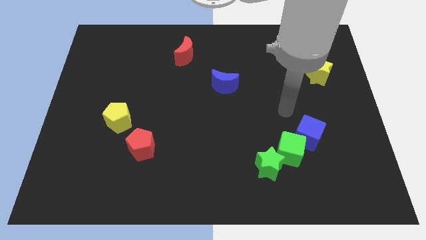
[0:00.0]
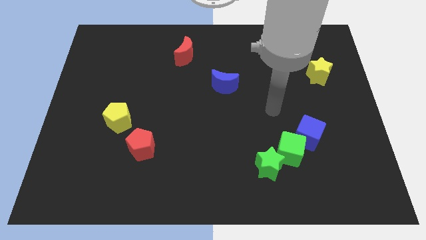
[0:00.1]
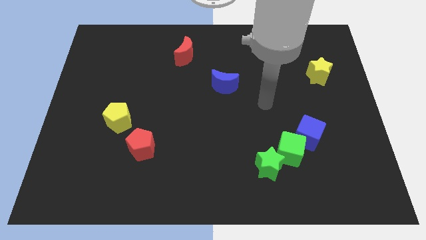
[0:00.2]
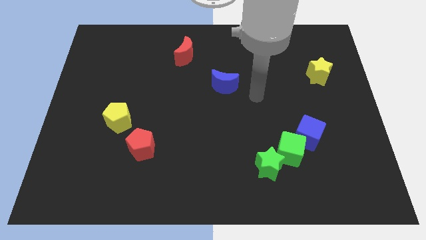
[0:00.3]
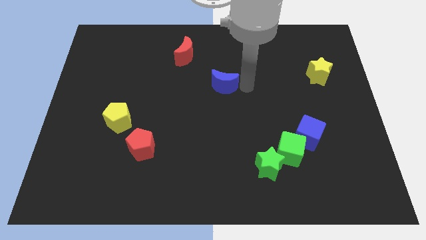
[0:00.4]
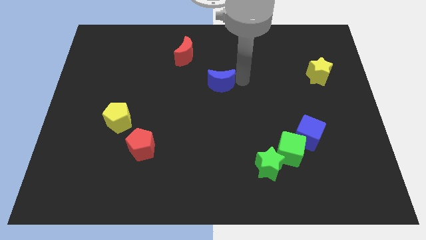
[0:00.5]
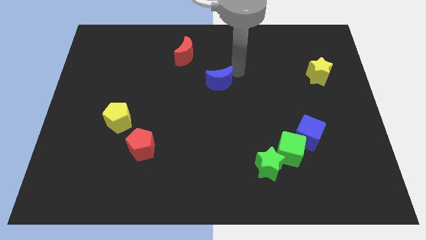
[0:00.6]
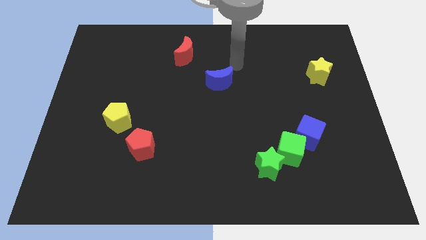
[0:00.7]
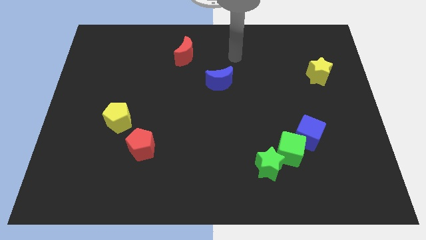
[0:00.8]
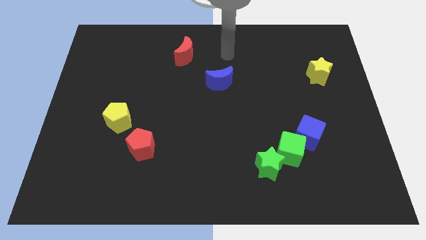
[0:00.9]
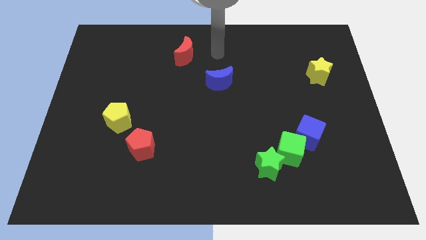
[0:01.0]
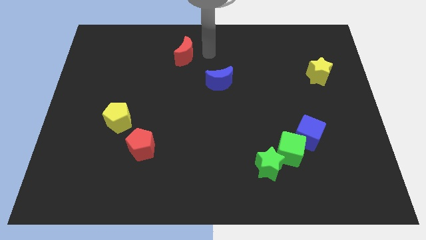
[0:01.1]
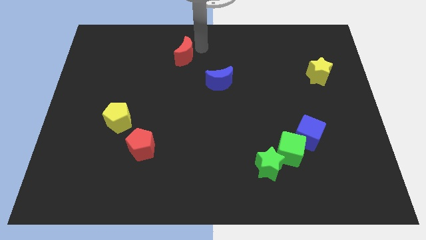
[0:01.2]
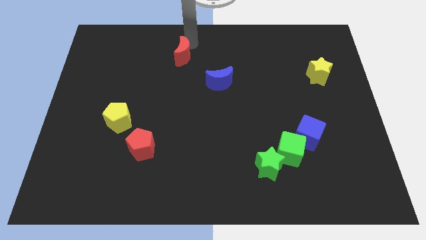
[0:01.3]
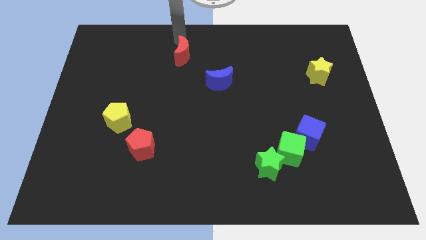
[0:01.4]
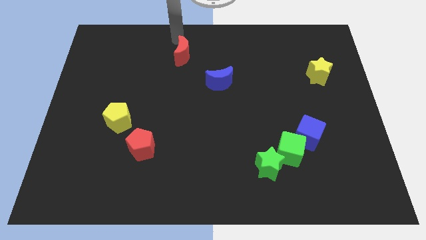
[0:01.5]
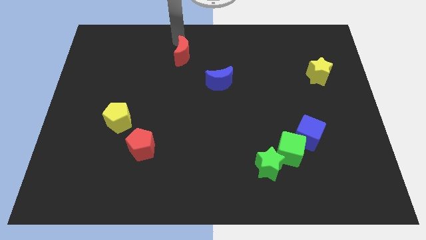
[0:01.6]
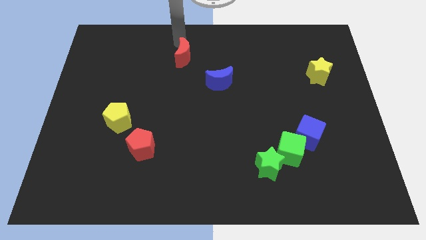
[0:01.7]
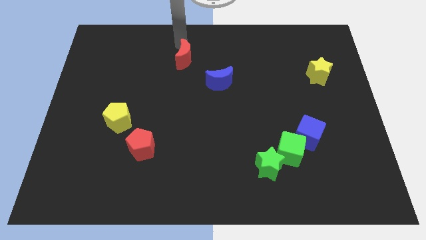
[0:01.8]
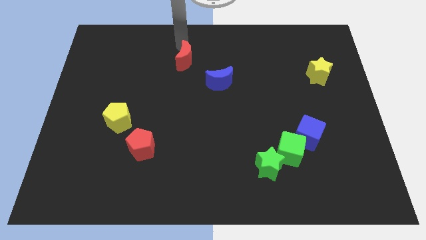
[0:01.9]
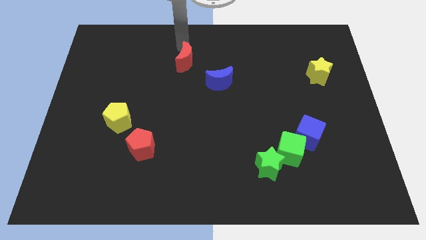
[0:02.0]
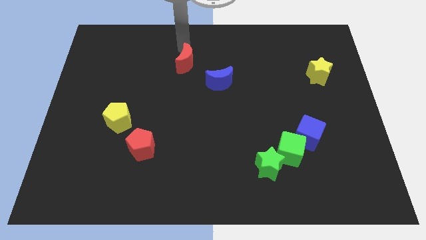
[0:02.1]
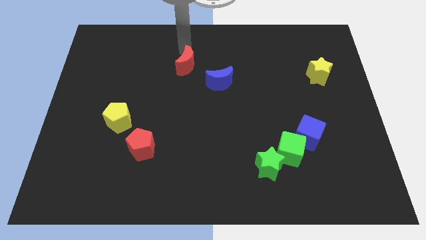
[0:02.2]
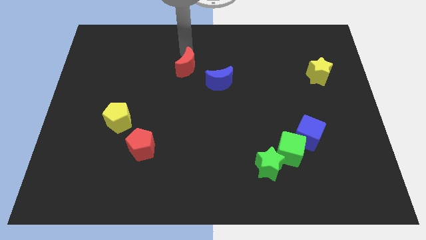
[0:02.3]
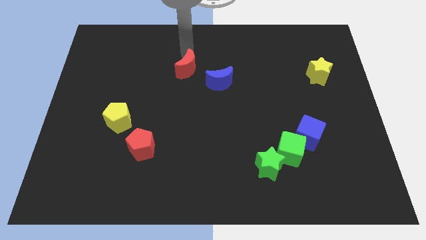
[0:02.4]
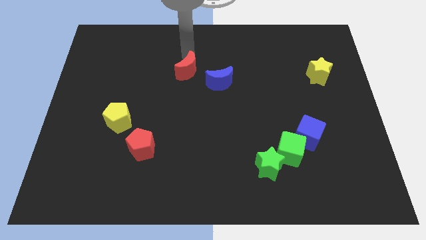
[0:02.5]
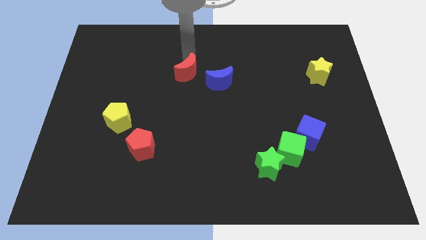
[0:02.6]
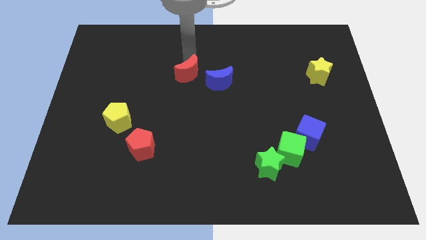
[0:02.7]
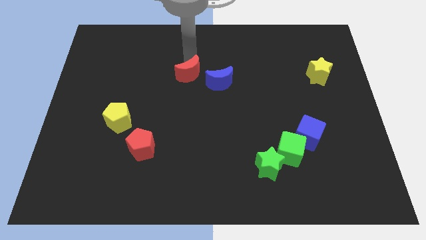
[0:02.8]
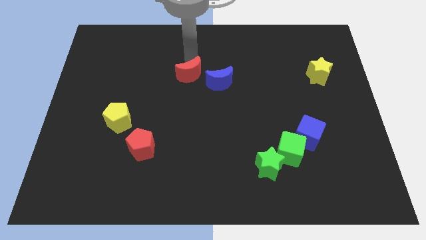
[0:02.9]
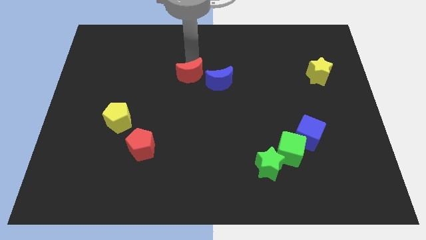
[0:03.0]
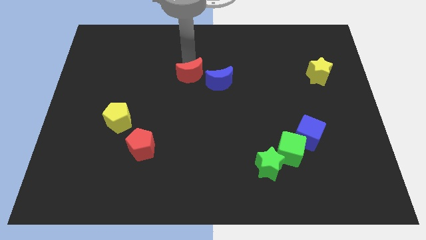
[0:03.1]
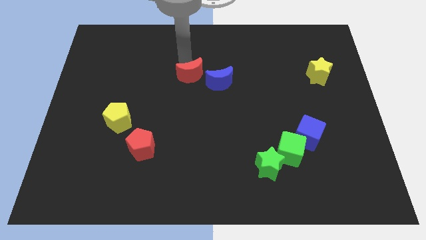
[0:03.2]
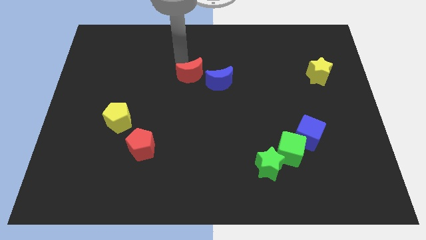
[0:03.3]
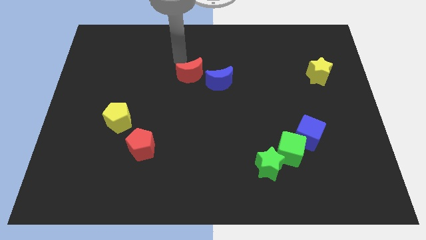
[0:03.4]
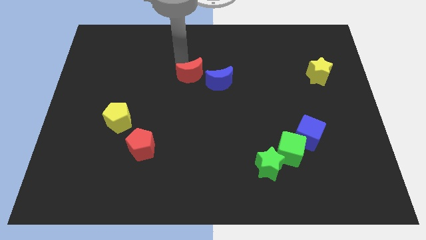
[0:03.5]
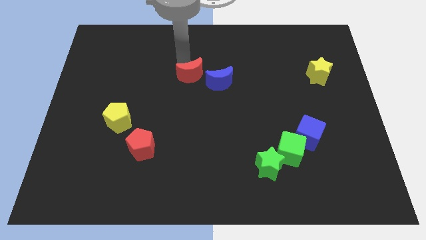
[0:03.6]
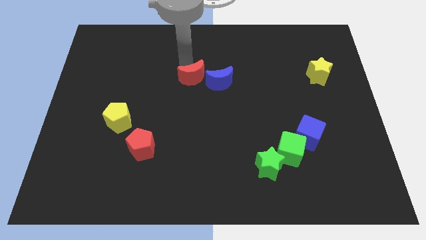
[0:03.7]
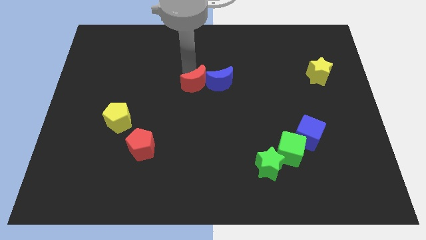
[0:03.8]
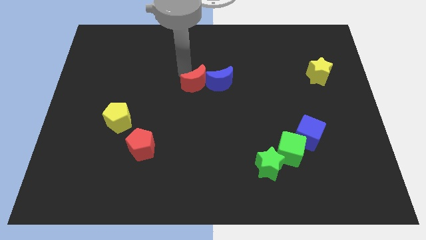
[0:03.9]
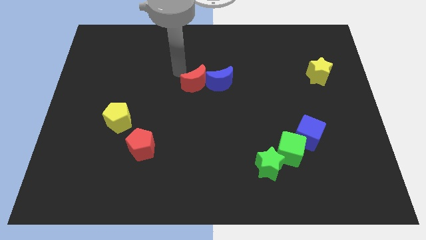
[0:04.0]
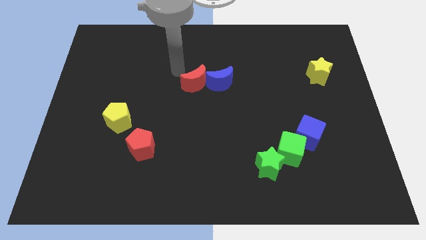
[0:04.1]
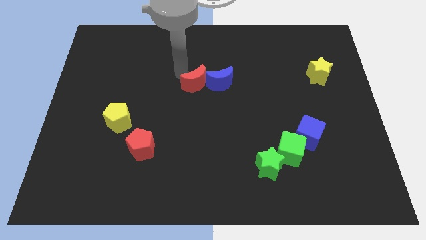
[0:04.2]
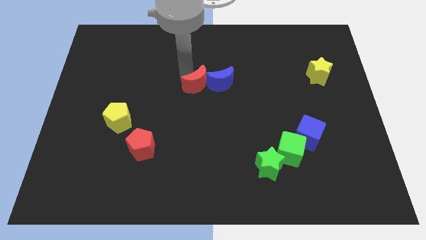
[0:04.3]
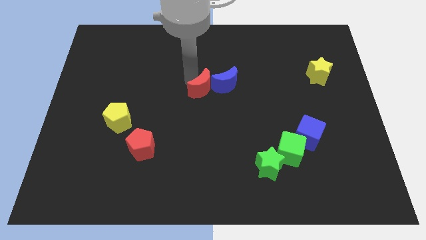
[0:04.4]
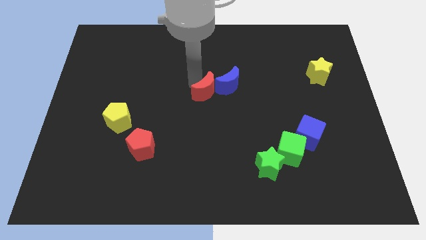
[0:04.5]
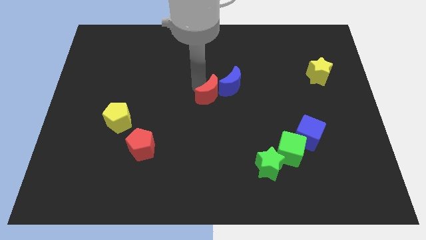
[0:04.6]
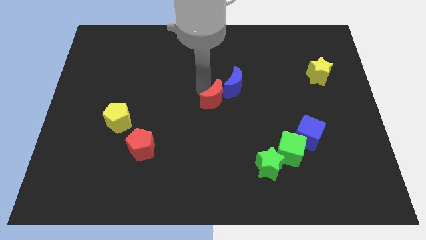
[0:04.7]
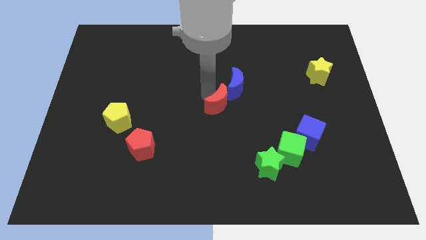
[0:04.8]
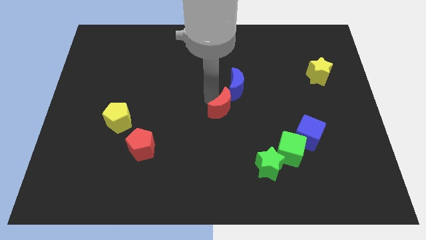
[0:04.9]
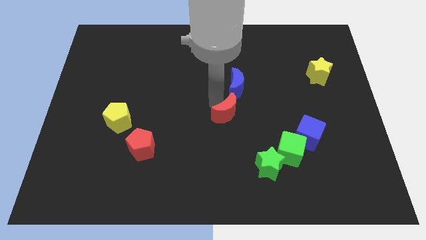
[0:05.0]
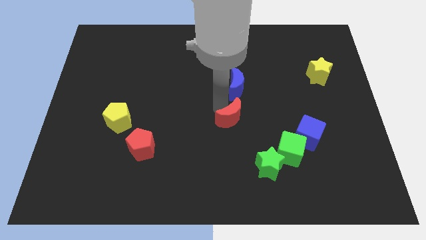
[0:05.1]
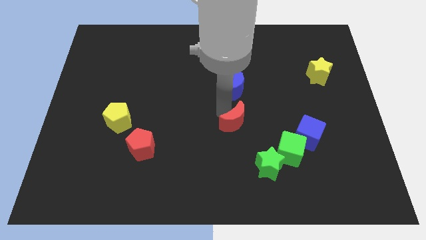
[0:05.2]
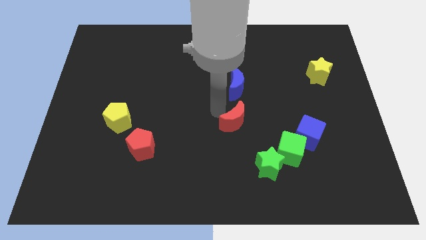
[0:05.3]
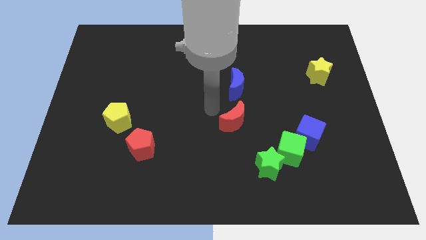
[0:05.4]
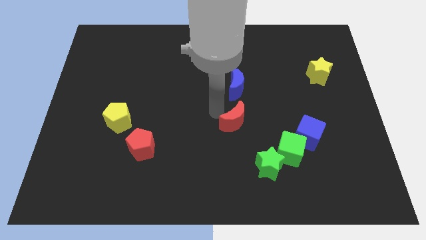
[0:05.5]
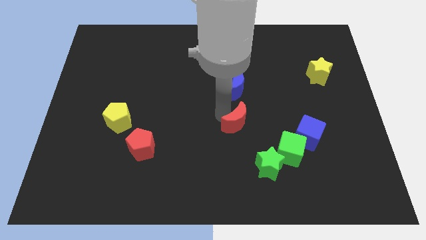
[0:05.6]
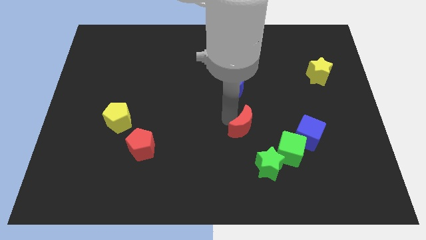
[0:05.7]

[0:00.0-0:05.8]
move the red moon just left of the blue cube

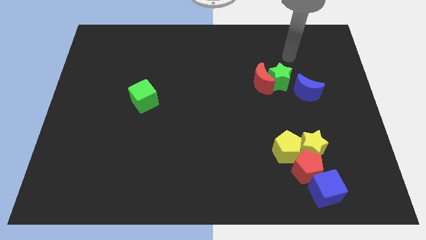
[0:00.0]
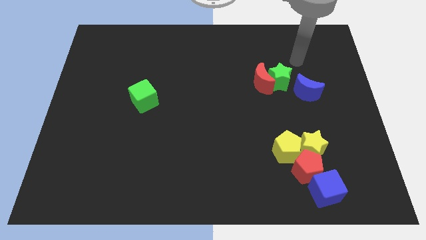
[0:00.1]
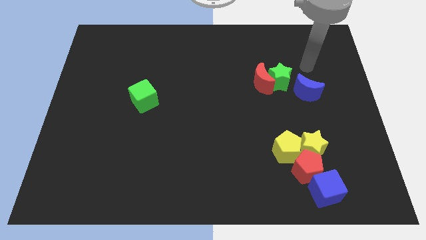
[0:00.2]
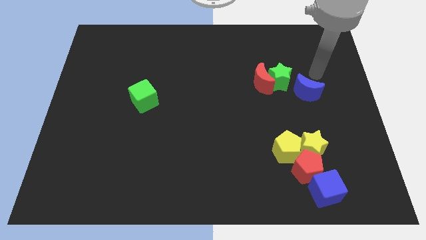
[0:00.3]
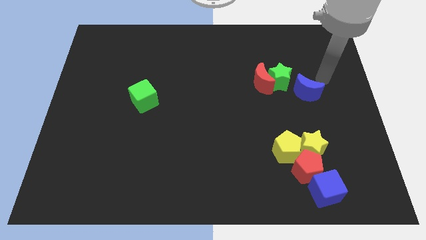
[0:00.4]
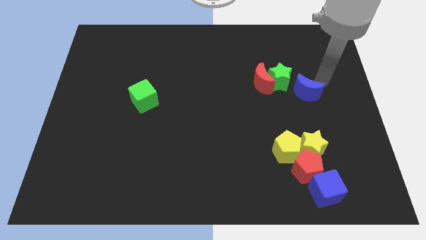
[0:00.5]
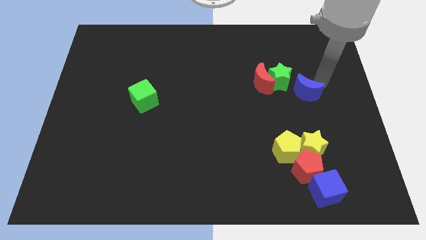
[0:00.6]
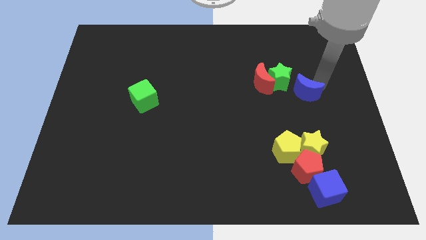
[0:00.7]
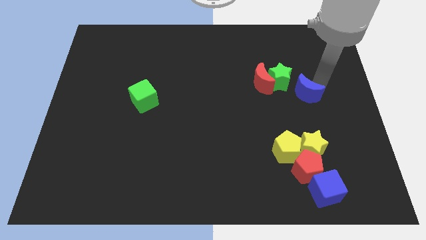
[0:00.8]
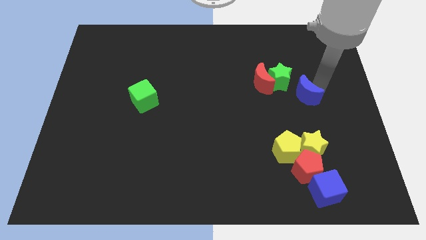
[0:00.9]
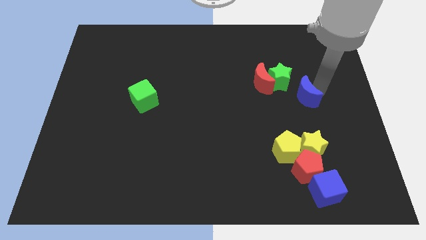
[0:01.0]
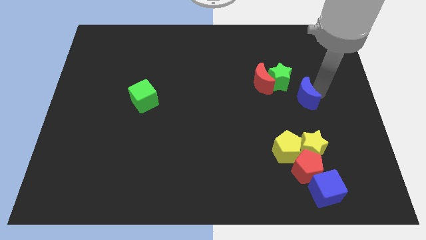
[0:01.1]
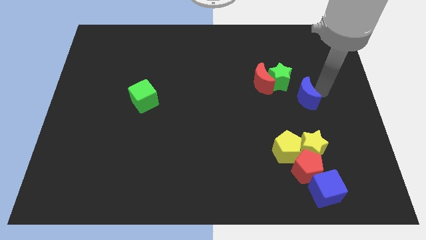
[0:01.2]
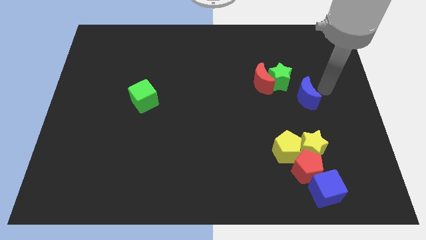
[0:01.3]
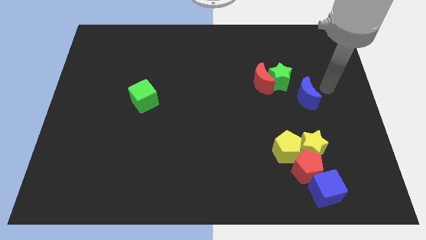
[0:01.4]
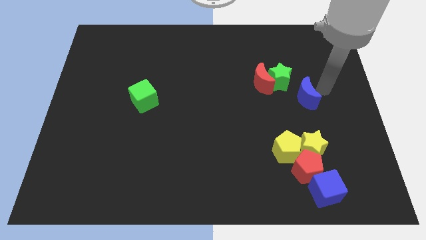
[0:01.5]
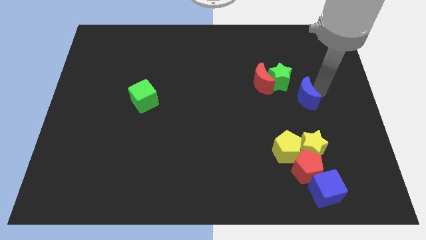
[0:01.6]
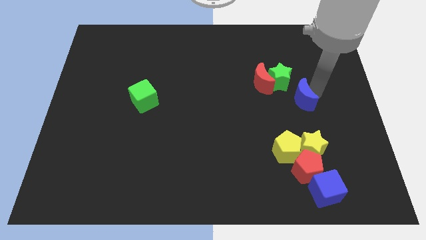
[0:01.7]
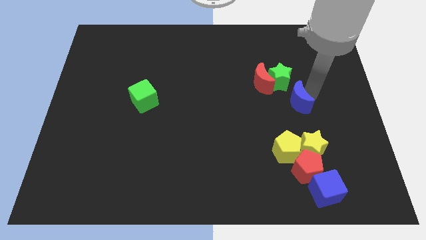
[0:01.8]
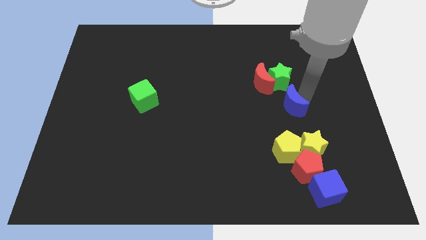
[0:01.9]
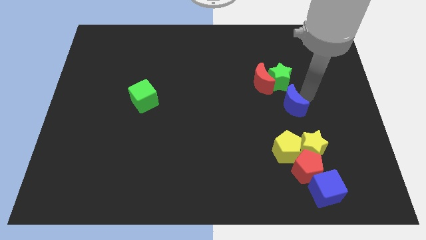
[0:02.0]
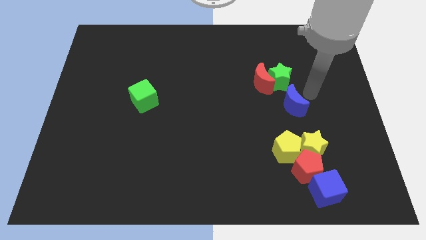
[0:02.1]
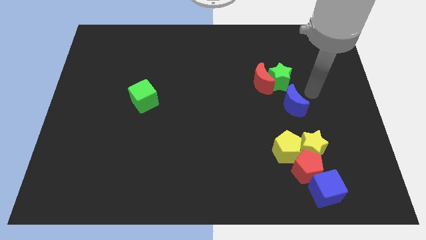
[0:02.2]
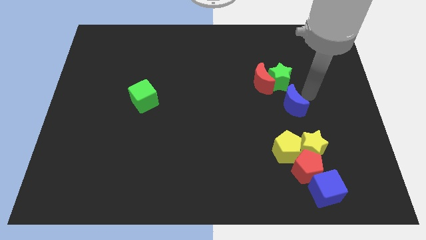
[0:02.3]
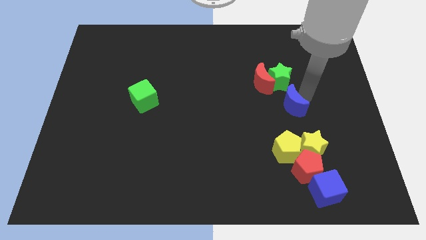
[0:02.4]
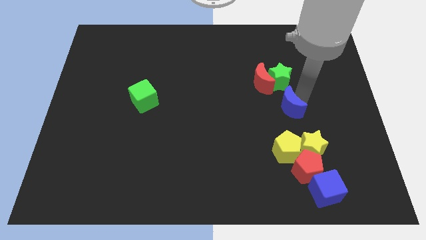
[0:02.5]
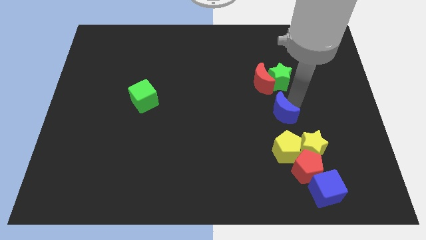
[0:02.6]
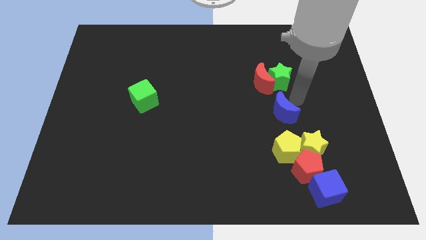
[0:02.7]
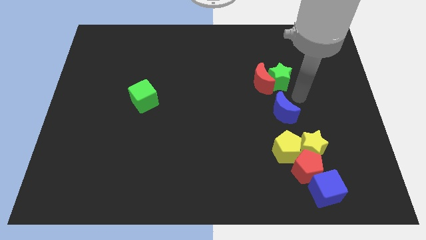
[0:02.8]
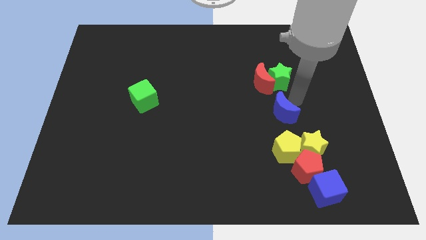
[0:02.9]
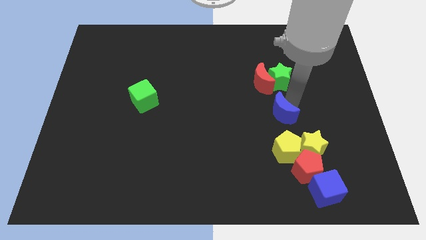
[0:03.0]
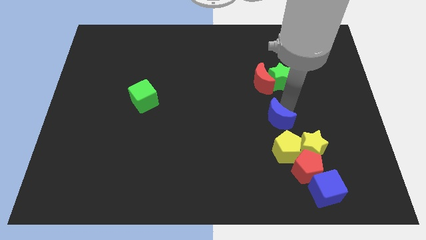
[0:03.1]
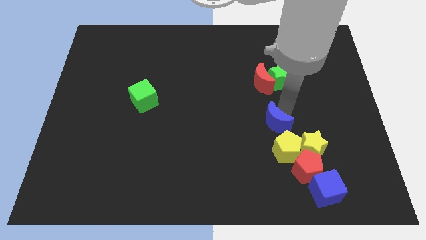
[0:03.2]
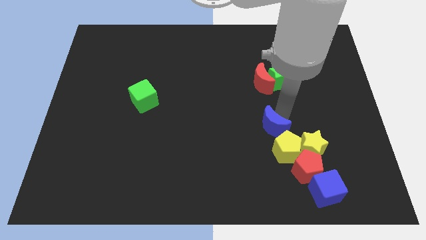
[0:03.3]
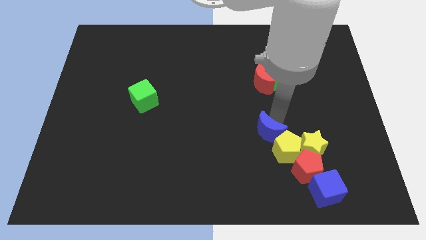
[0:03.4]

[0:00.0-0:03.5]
push the blue moon to the left side of the yellow star
